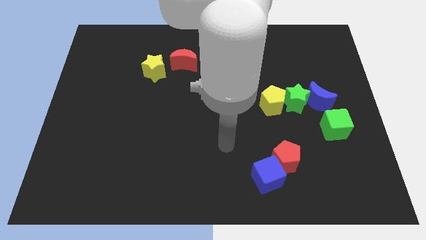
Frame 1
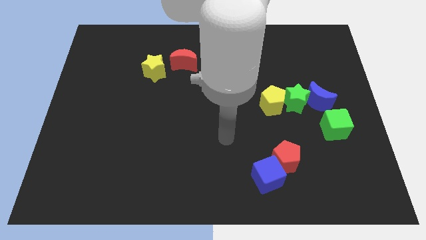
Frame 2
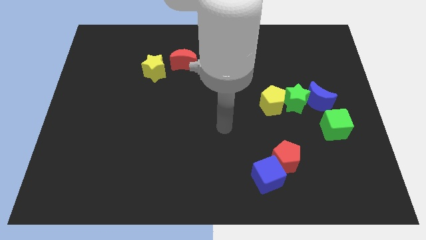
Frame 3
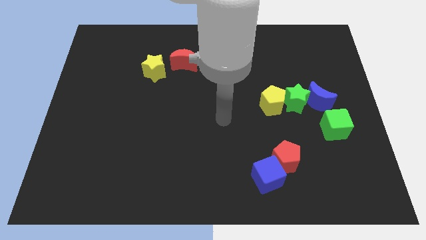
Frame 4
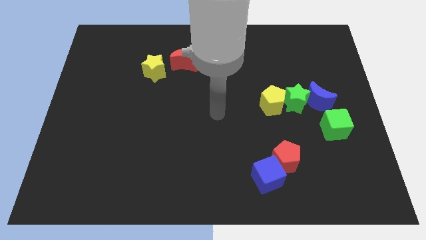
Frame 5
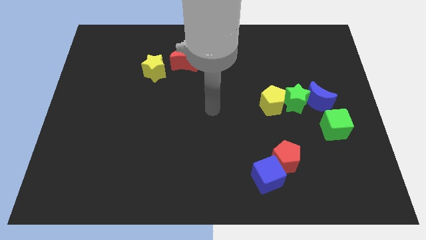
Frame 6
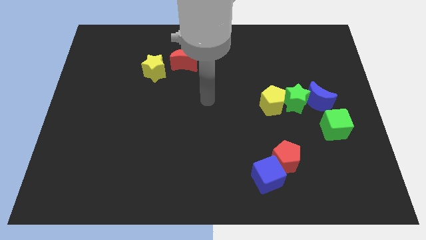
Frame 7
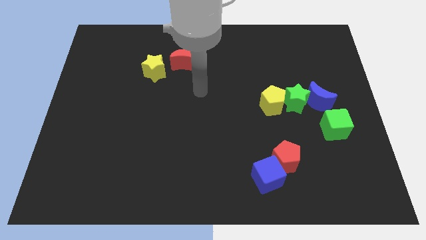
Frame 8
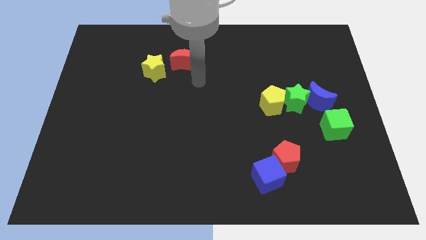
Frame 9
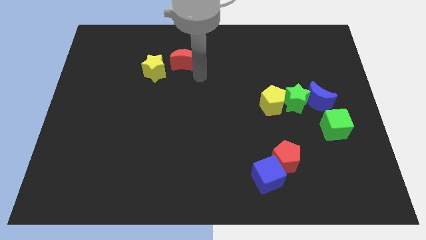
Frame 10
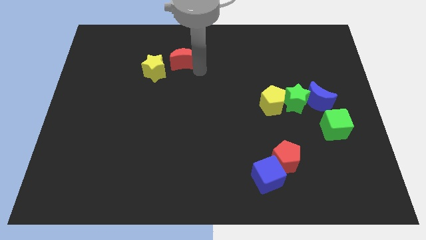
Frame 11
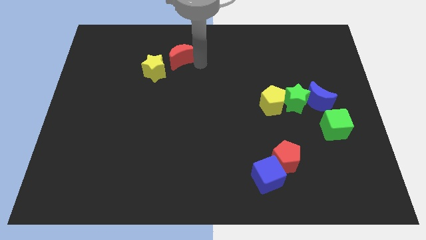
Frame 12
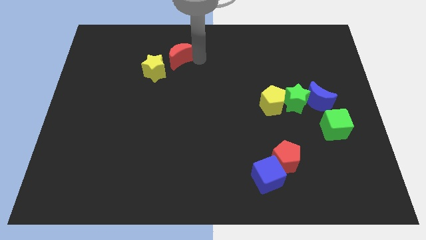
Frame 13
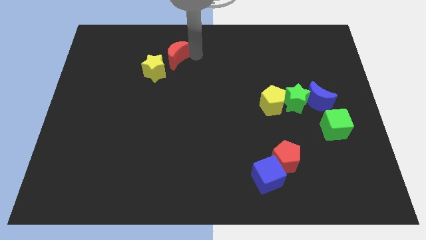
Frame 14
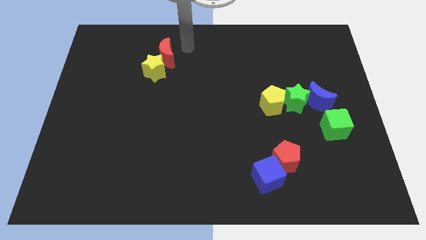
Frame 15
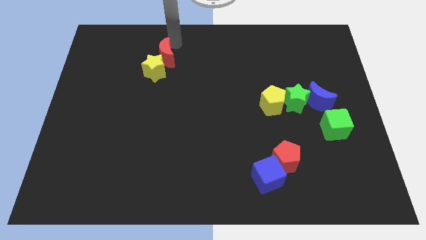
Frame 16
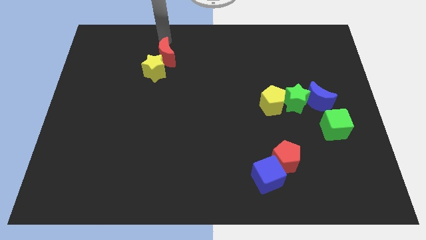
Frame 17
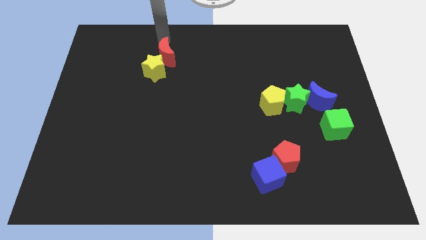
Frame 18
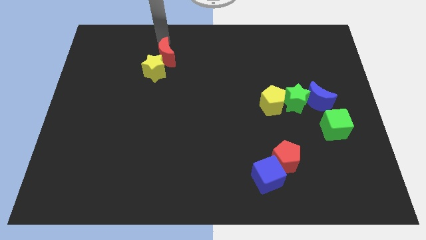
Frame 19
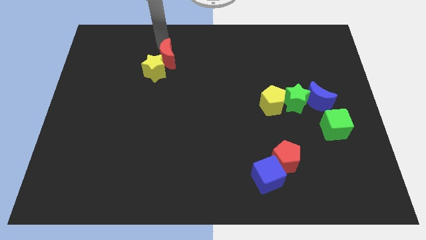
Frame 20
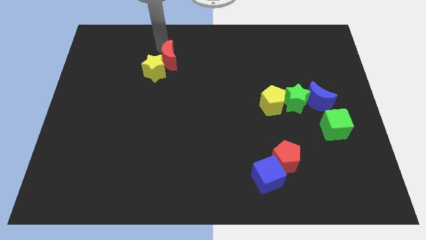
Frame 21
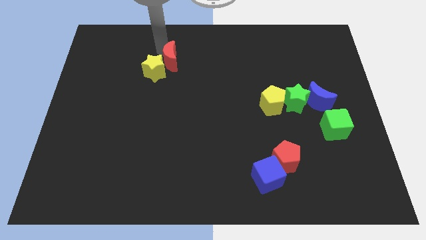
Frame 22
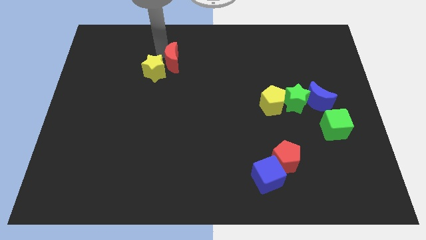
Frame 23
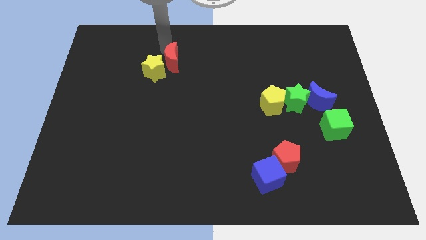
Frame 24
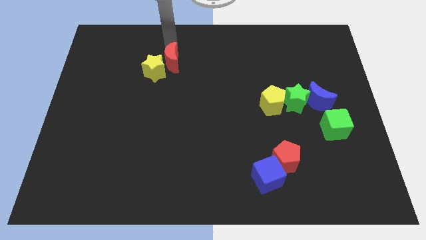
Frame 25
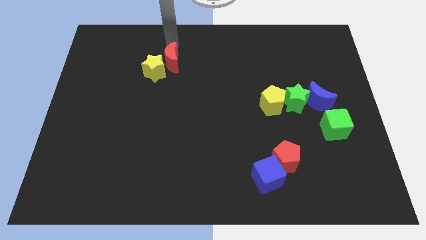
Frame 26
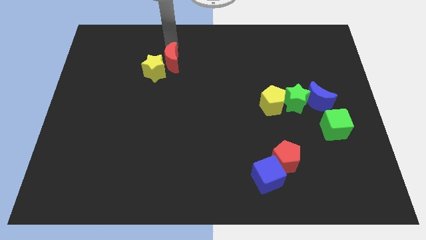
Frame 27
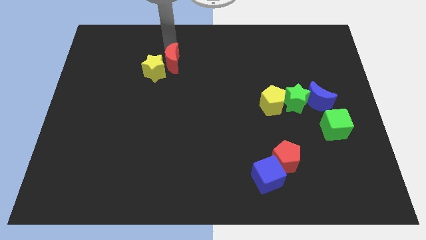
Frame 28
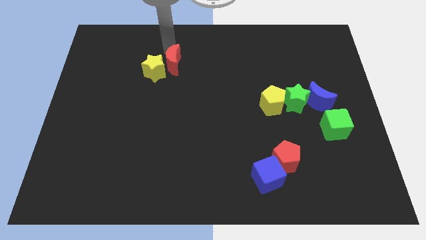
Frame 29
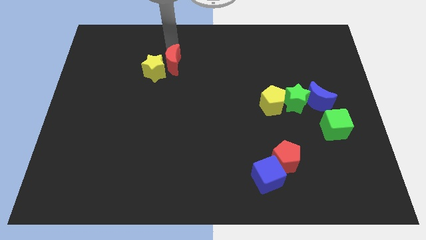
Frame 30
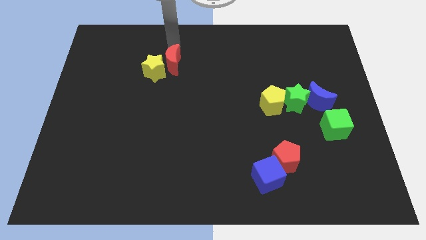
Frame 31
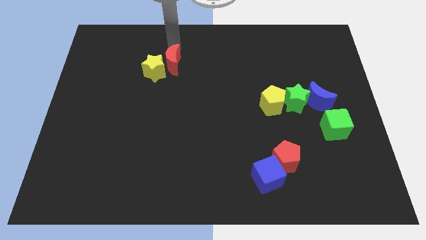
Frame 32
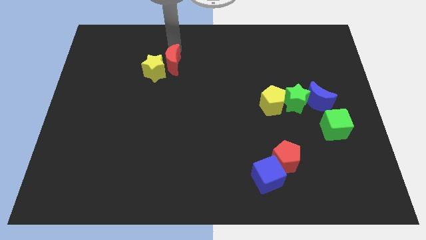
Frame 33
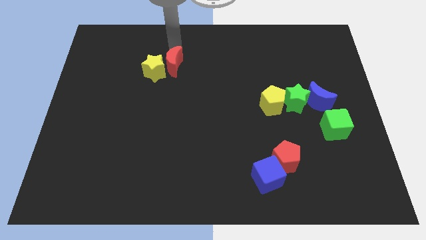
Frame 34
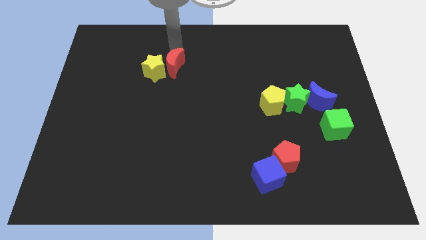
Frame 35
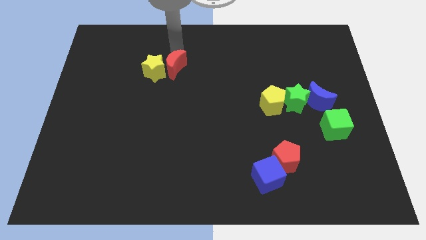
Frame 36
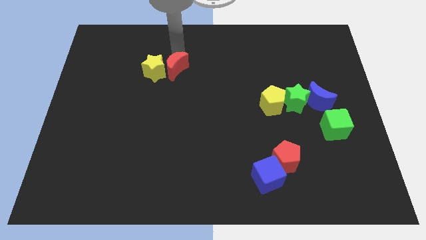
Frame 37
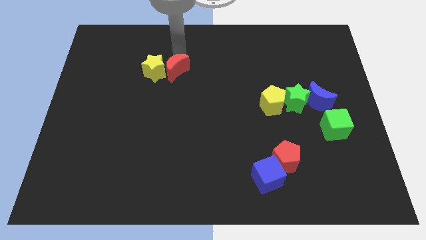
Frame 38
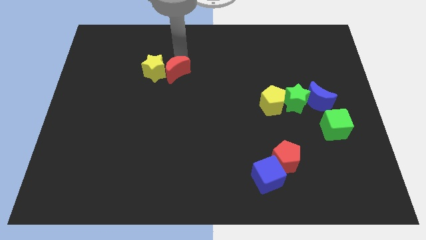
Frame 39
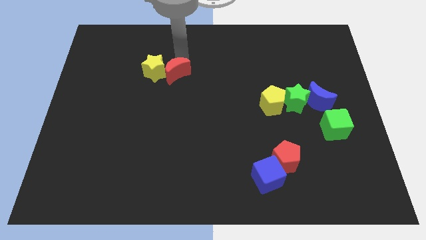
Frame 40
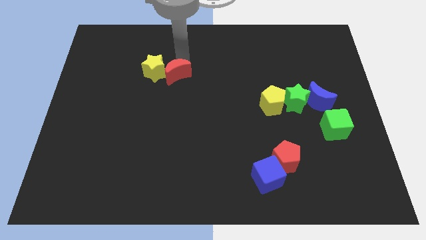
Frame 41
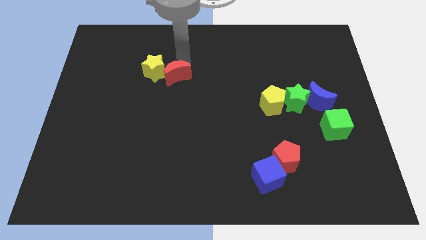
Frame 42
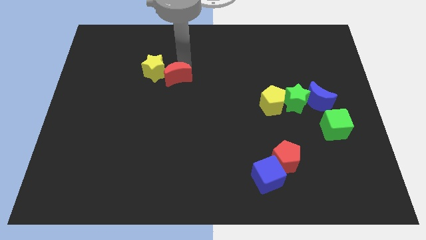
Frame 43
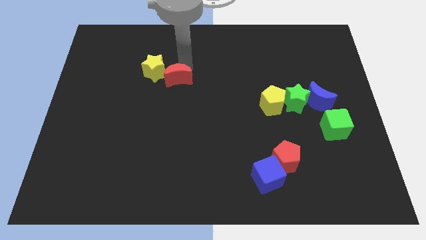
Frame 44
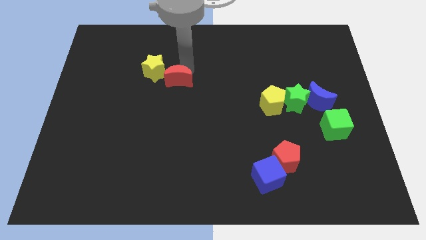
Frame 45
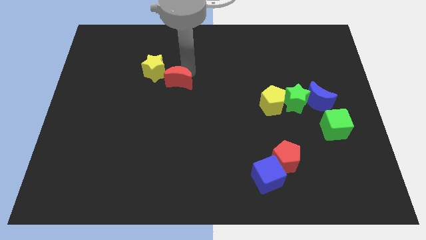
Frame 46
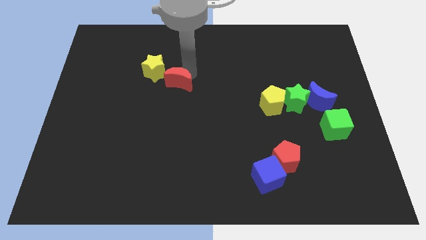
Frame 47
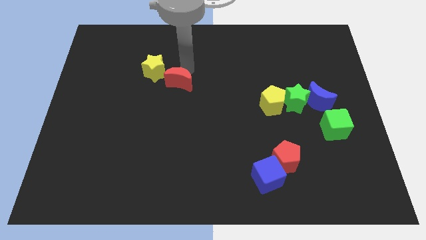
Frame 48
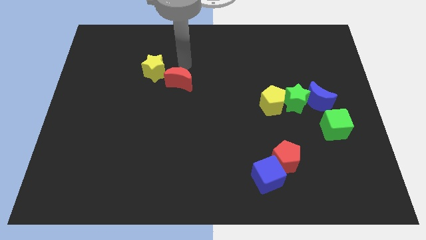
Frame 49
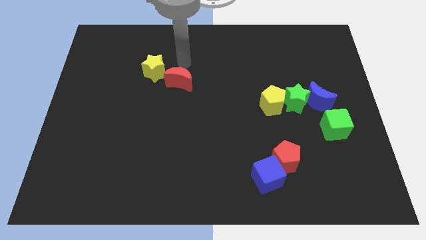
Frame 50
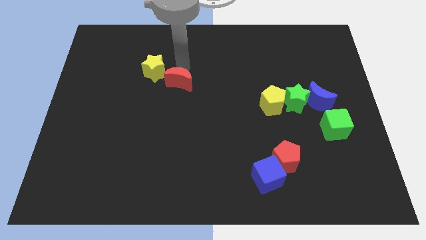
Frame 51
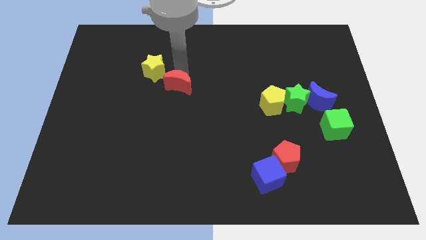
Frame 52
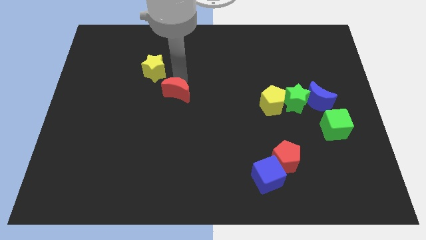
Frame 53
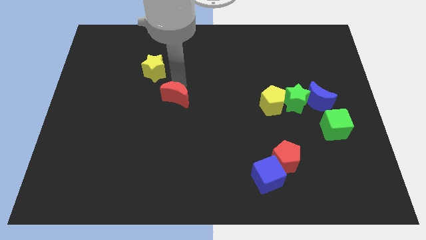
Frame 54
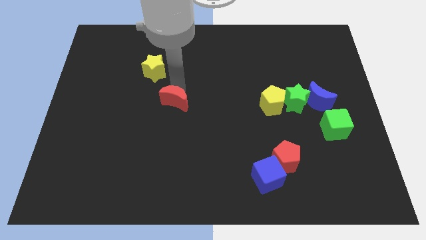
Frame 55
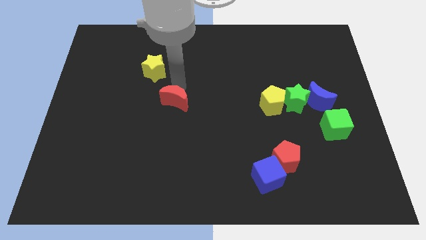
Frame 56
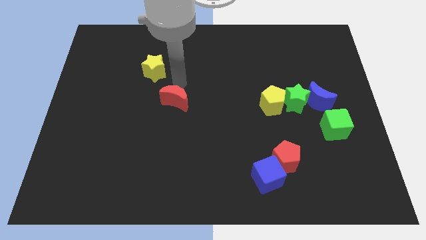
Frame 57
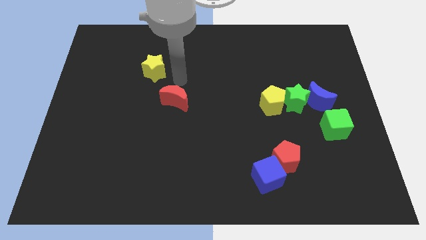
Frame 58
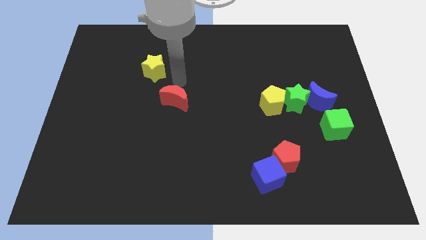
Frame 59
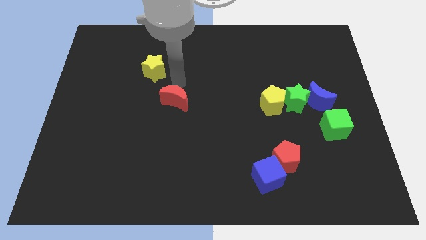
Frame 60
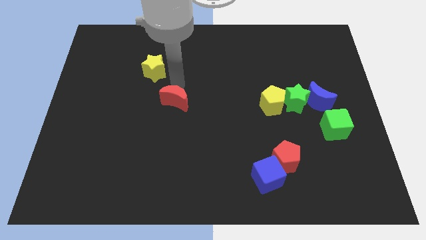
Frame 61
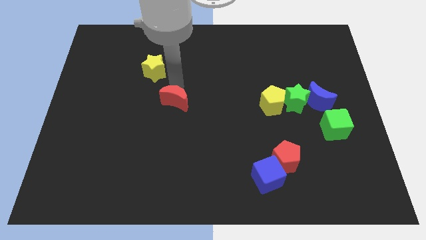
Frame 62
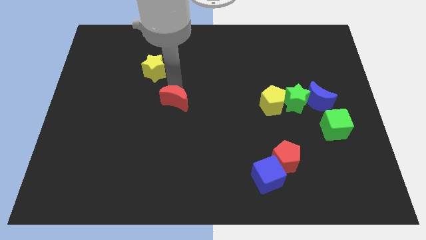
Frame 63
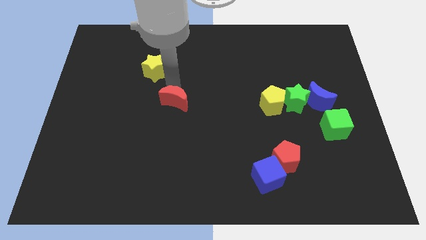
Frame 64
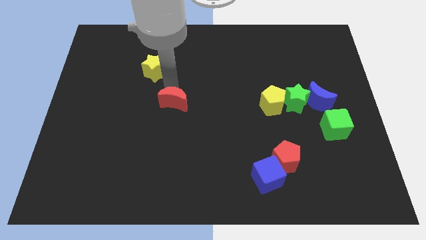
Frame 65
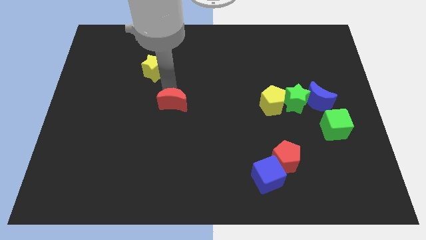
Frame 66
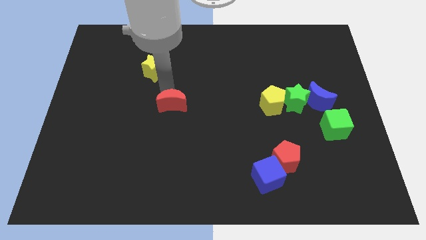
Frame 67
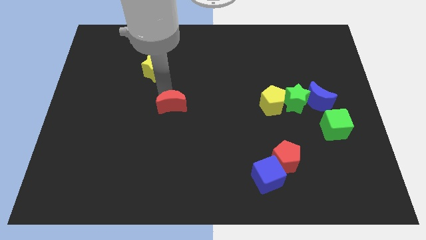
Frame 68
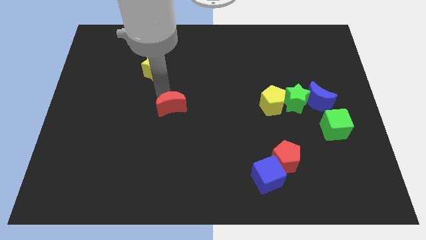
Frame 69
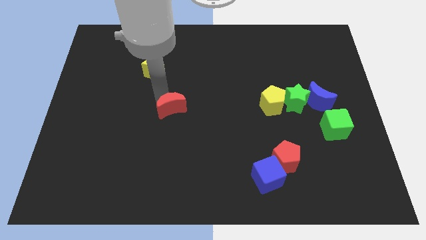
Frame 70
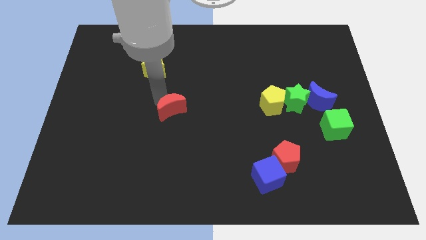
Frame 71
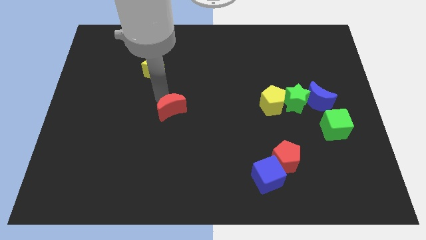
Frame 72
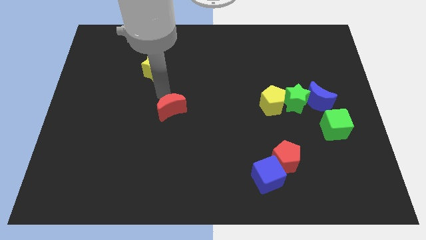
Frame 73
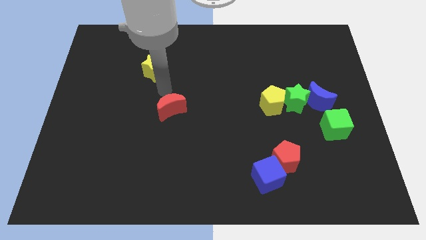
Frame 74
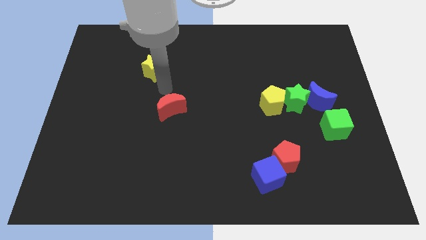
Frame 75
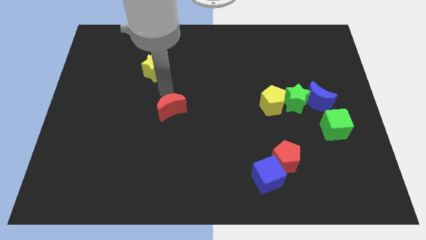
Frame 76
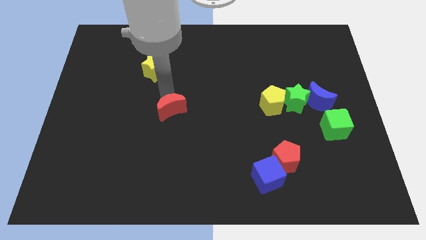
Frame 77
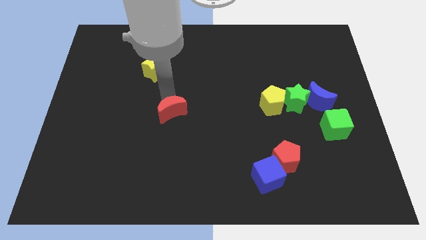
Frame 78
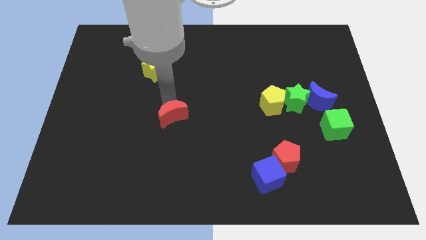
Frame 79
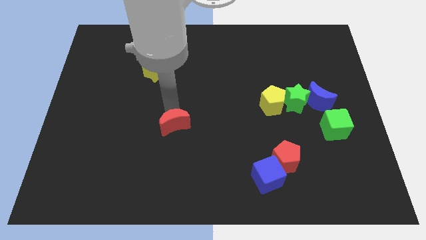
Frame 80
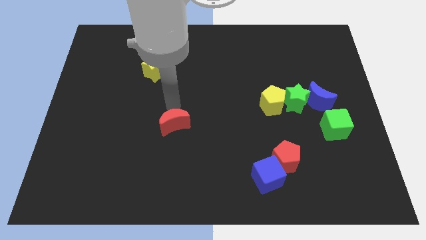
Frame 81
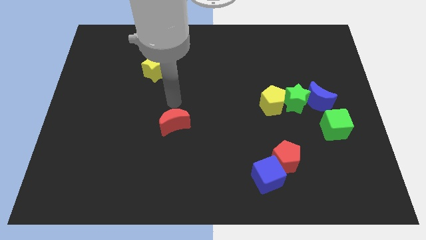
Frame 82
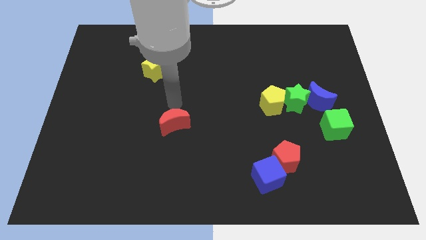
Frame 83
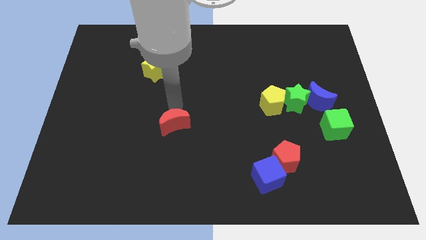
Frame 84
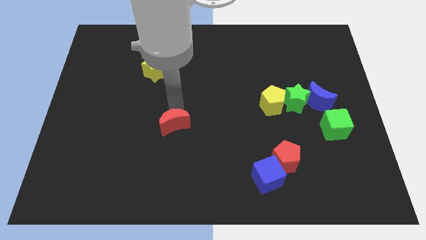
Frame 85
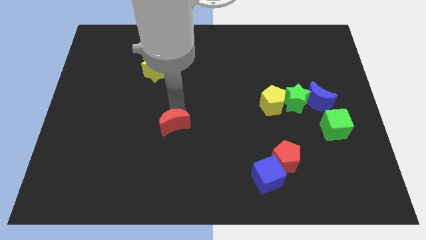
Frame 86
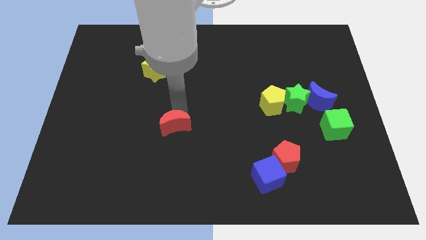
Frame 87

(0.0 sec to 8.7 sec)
slide the red moon downwards

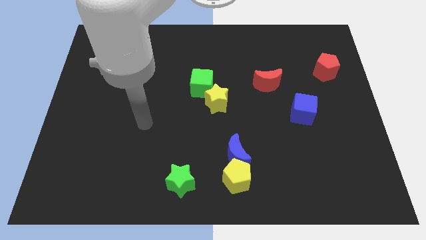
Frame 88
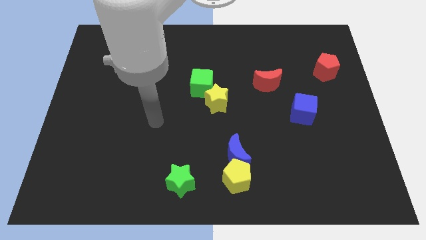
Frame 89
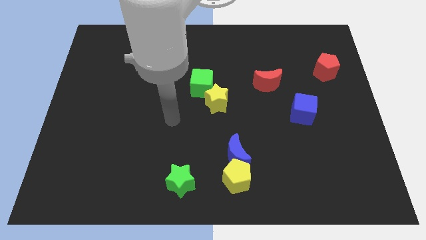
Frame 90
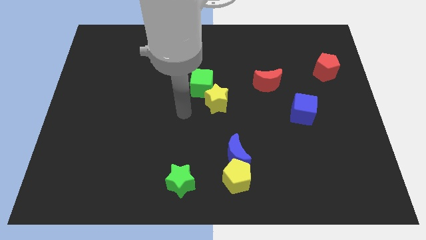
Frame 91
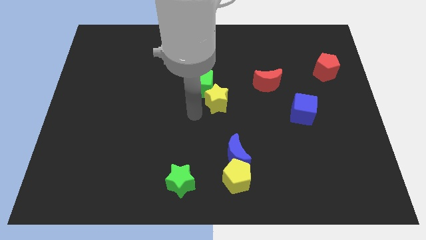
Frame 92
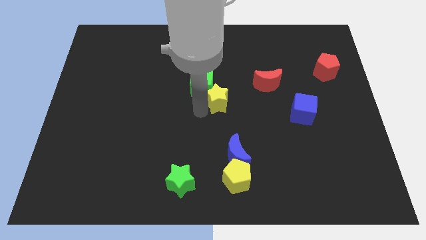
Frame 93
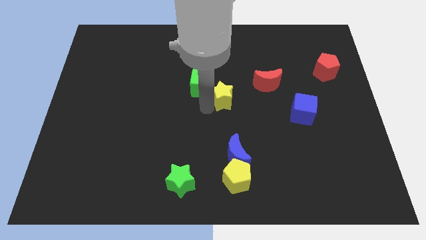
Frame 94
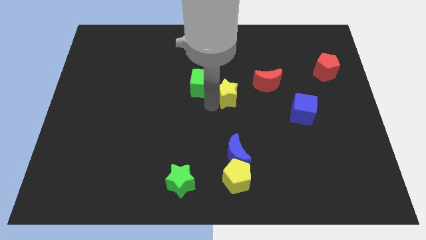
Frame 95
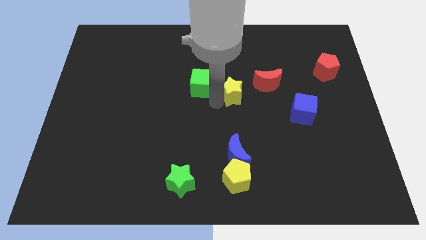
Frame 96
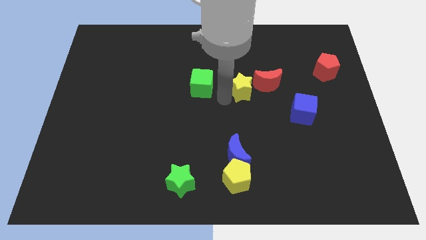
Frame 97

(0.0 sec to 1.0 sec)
push the yellow star a little upwards and then to the right
